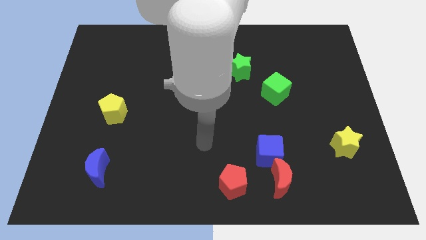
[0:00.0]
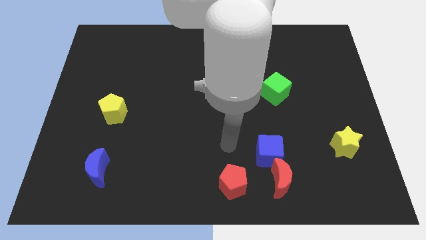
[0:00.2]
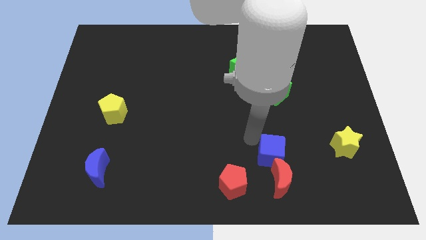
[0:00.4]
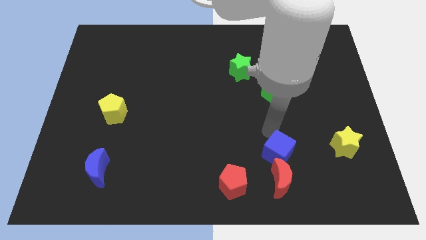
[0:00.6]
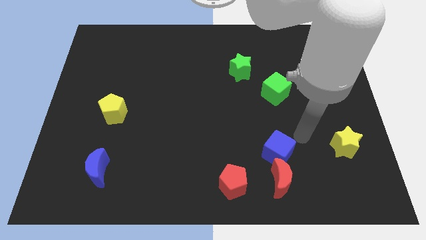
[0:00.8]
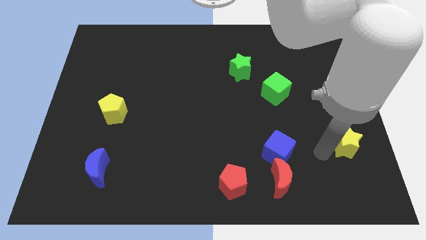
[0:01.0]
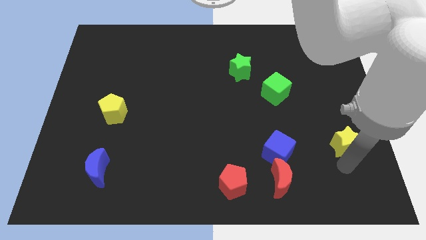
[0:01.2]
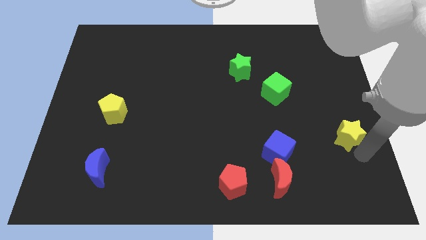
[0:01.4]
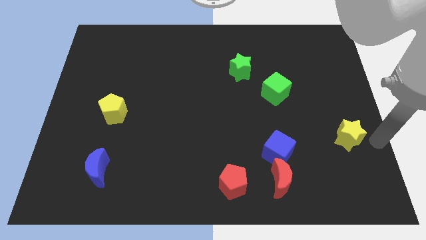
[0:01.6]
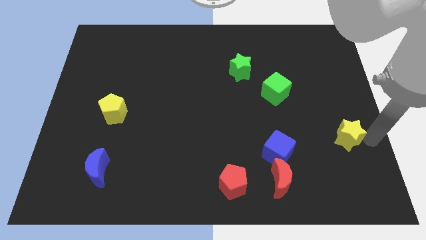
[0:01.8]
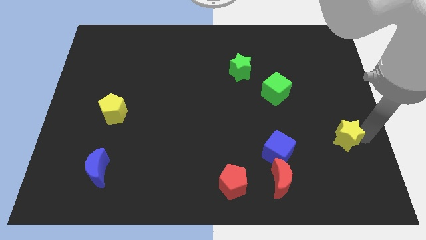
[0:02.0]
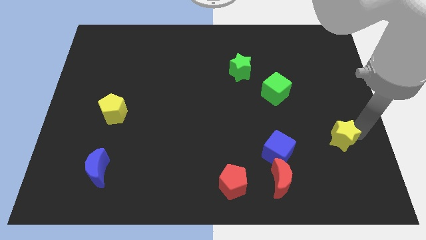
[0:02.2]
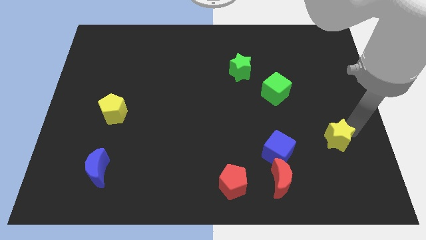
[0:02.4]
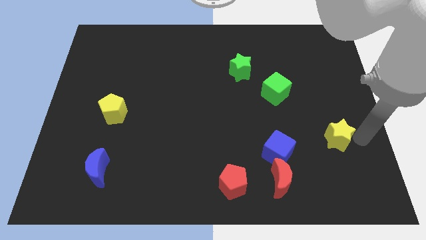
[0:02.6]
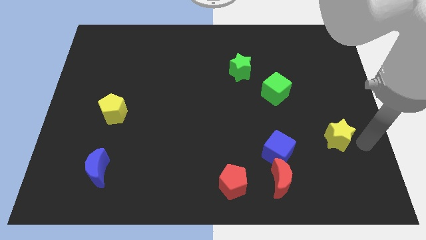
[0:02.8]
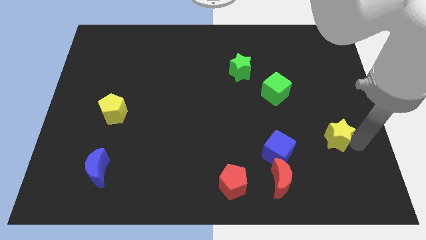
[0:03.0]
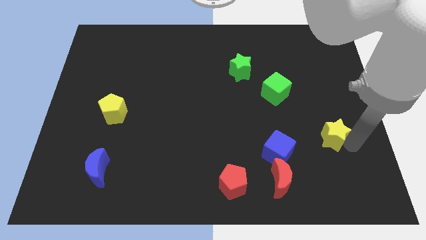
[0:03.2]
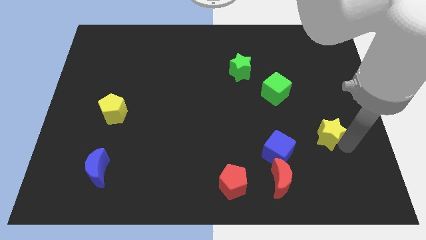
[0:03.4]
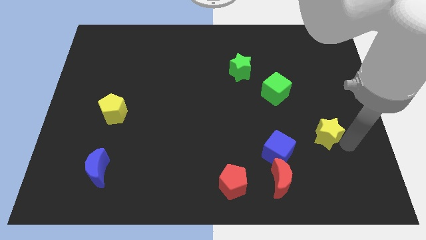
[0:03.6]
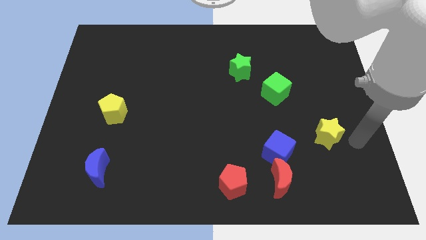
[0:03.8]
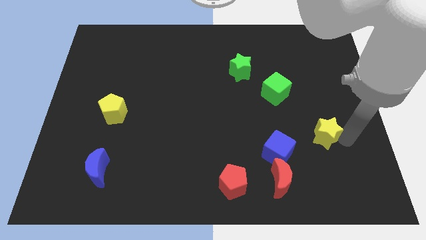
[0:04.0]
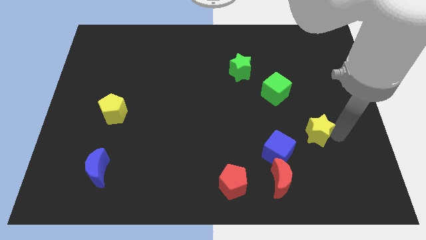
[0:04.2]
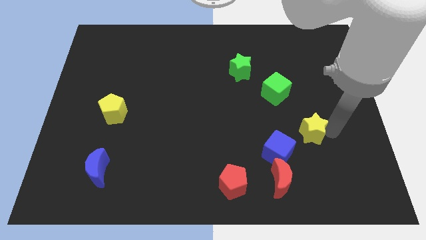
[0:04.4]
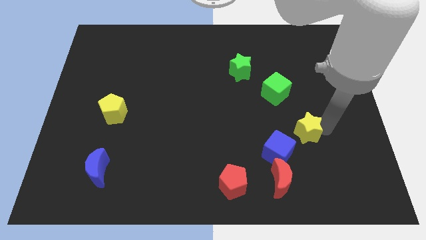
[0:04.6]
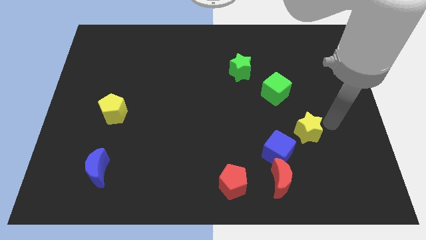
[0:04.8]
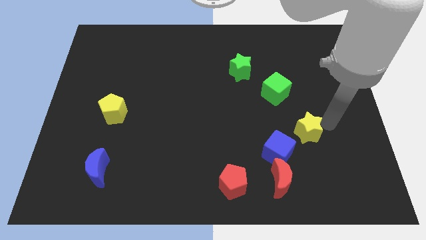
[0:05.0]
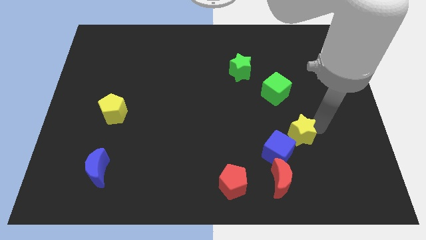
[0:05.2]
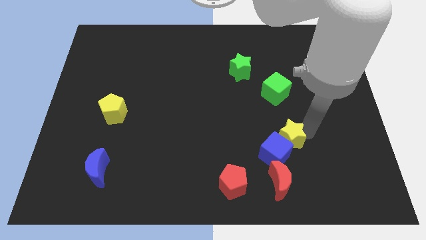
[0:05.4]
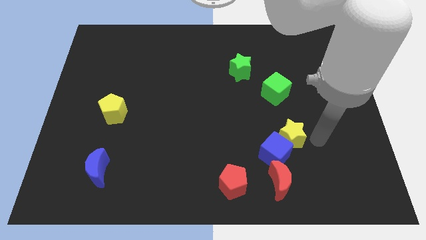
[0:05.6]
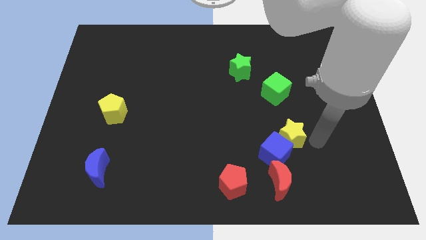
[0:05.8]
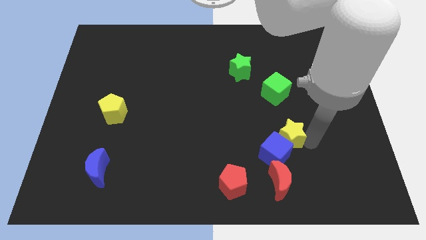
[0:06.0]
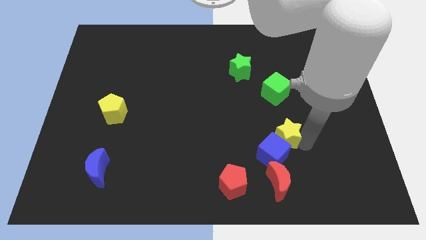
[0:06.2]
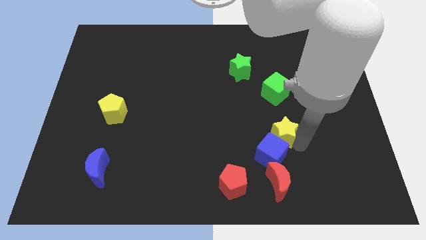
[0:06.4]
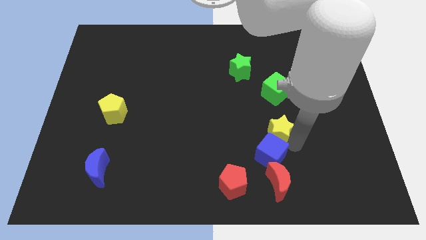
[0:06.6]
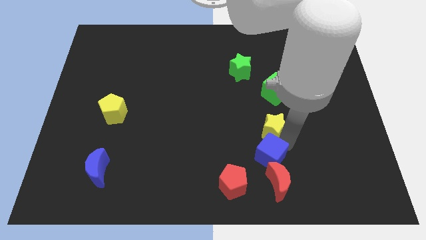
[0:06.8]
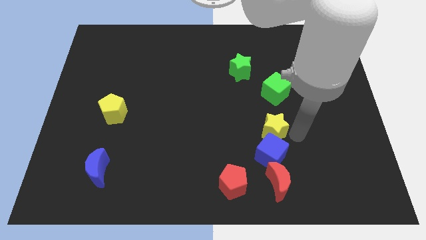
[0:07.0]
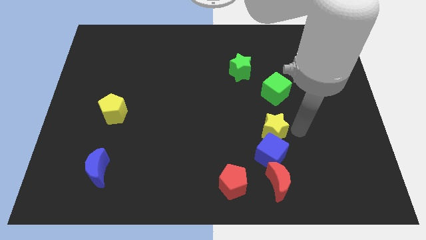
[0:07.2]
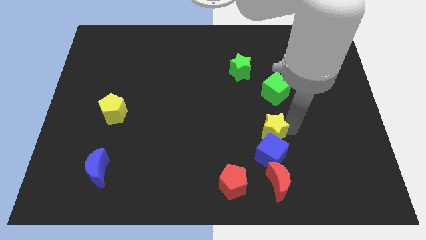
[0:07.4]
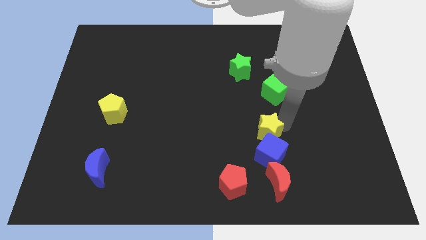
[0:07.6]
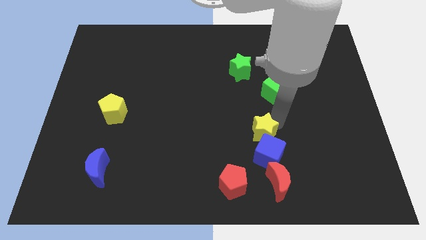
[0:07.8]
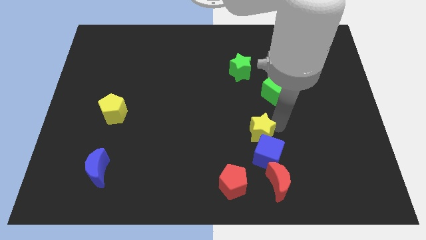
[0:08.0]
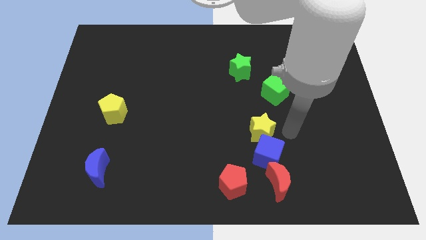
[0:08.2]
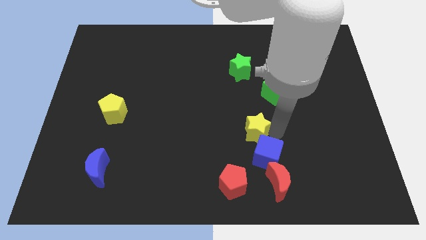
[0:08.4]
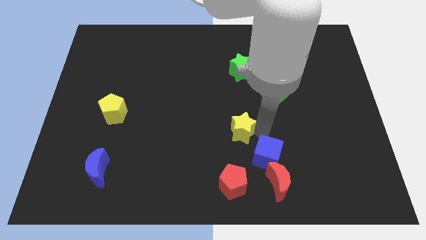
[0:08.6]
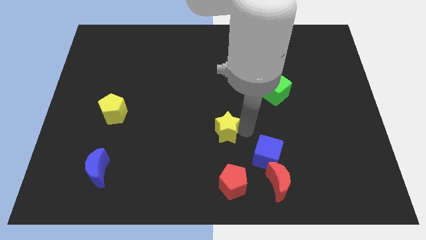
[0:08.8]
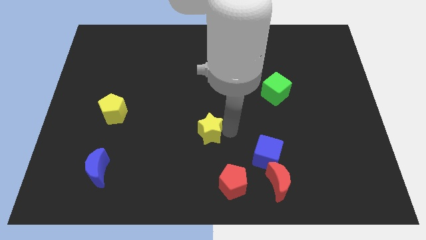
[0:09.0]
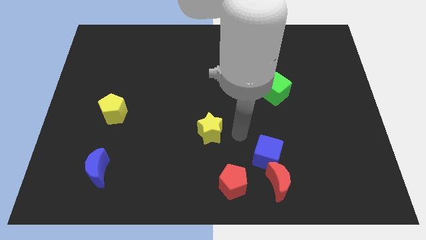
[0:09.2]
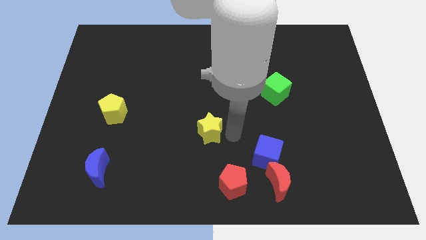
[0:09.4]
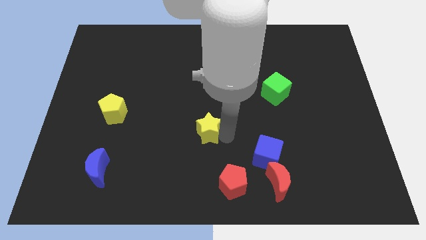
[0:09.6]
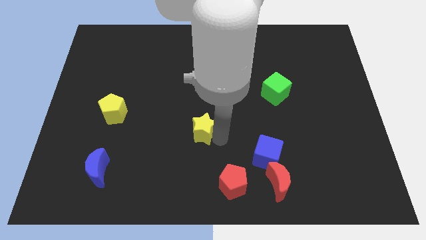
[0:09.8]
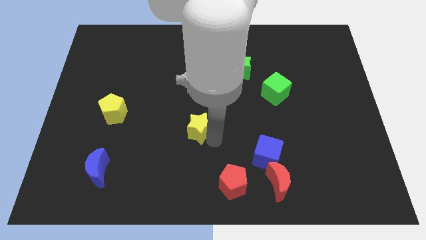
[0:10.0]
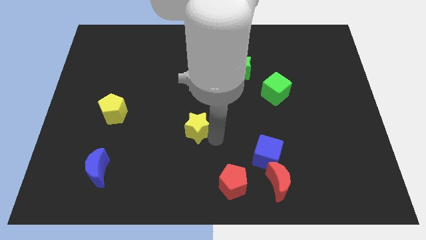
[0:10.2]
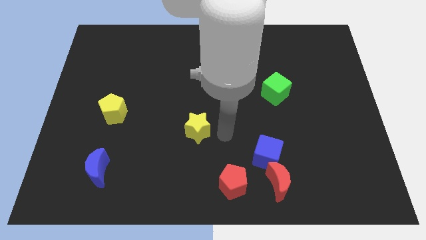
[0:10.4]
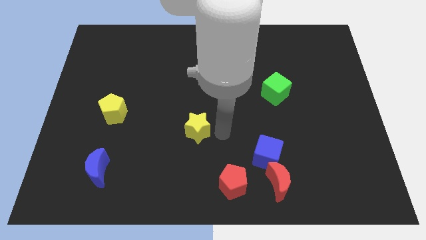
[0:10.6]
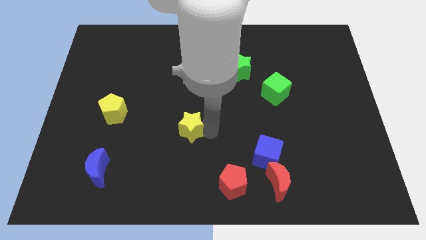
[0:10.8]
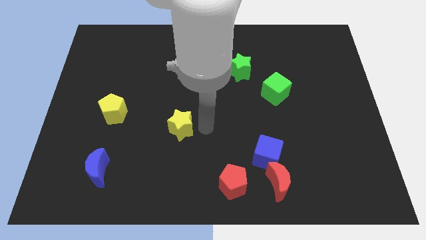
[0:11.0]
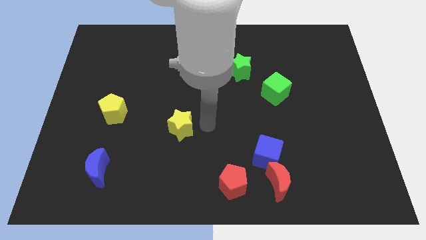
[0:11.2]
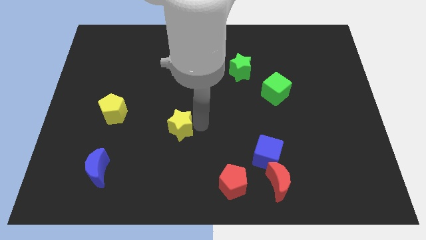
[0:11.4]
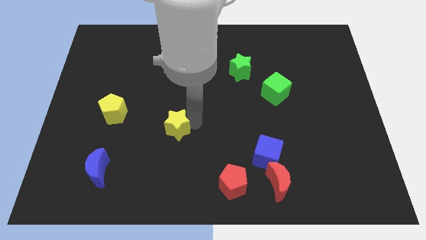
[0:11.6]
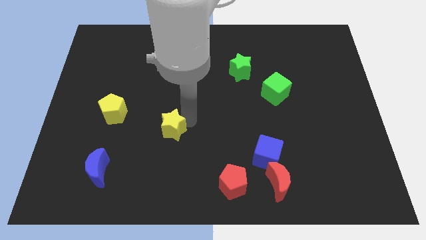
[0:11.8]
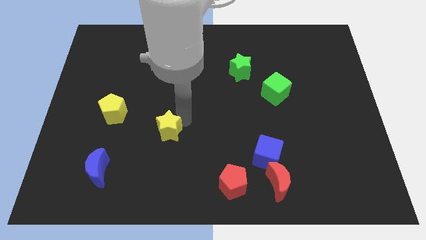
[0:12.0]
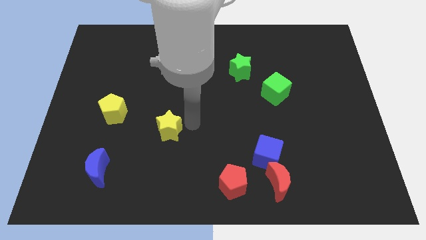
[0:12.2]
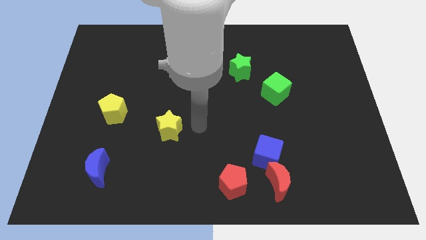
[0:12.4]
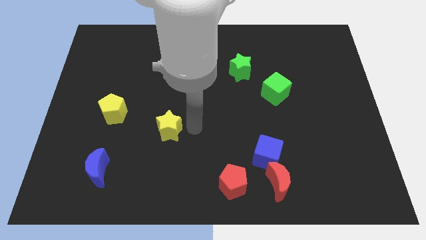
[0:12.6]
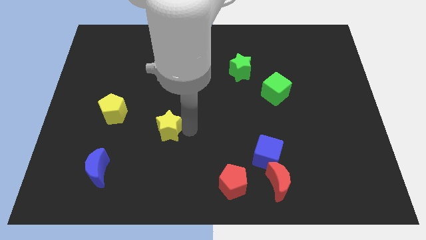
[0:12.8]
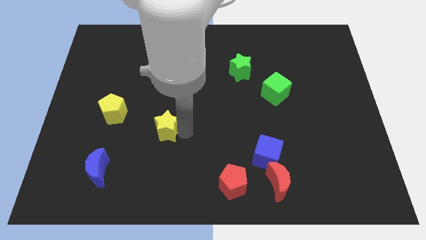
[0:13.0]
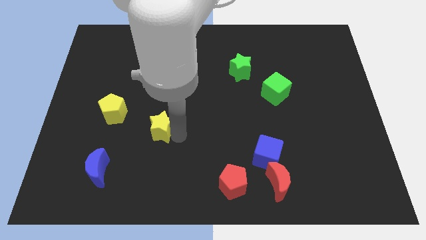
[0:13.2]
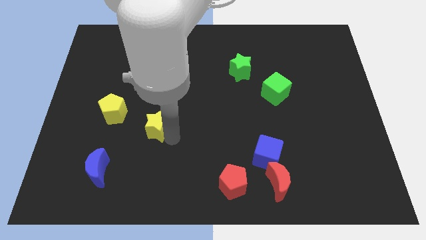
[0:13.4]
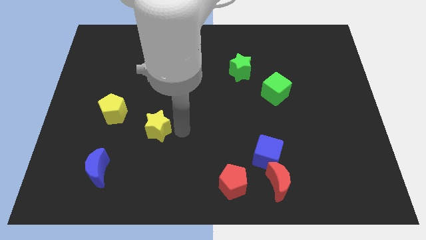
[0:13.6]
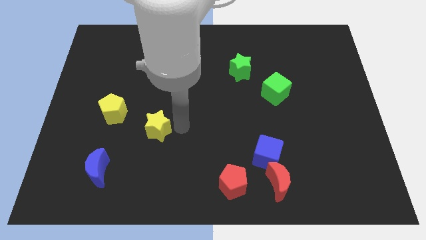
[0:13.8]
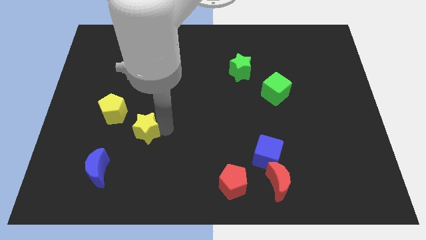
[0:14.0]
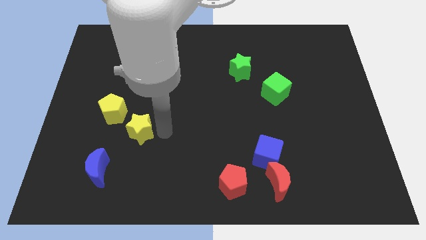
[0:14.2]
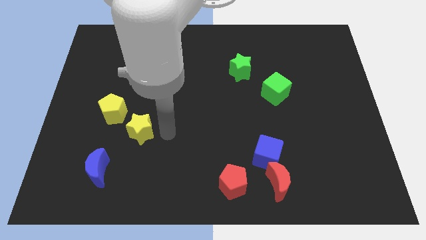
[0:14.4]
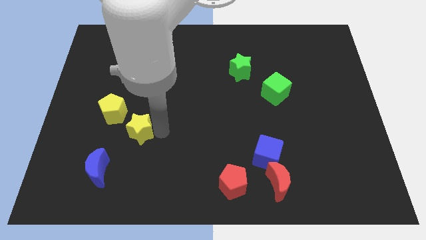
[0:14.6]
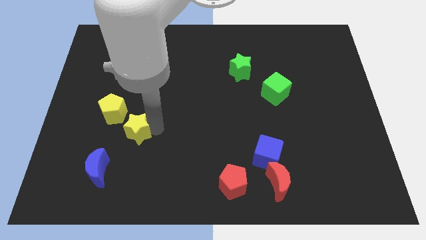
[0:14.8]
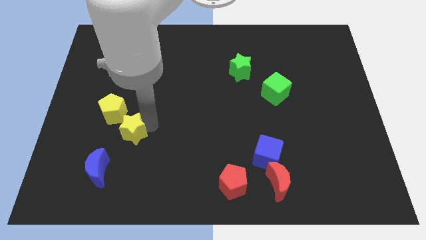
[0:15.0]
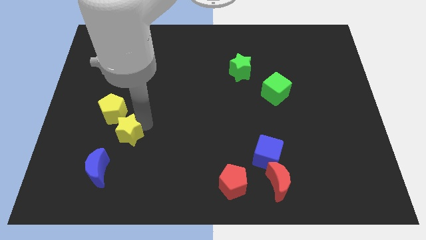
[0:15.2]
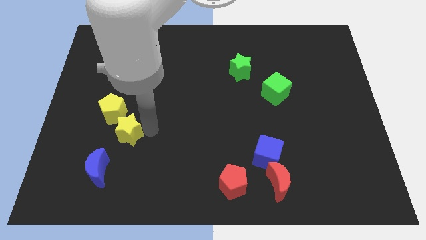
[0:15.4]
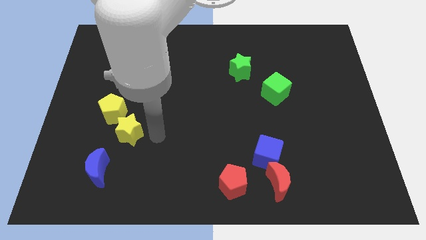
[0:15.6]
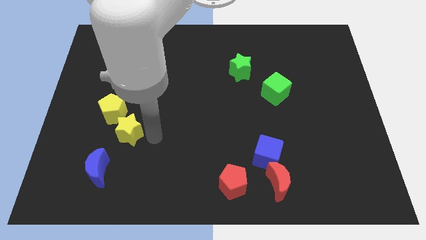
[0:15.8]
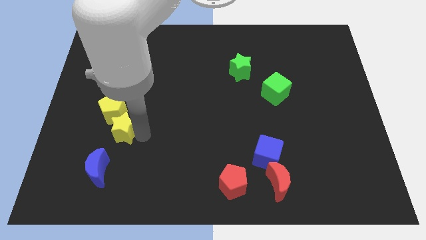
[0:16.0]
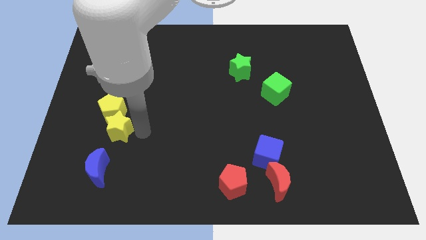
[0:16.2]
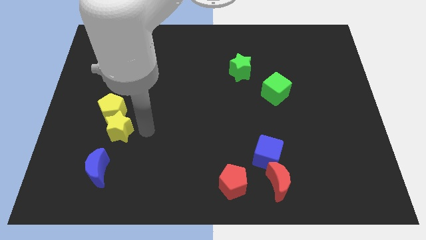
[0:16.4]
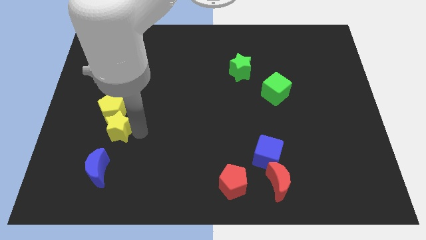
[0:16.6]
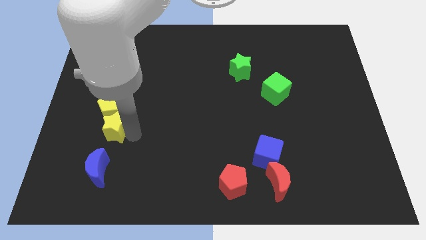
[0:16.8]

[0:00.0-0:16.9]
push the yellow star diagonally down and to the left of the yellow pentagon

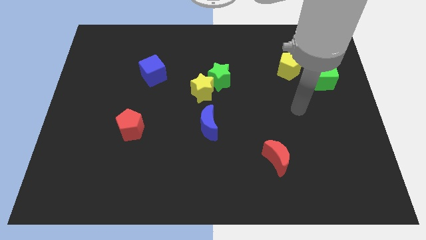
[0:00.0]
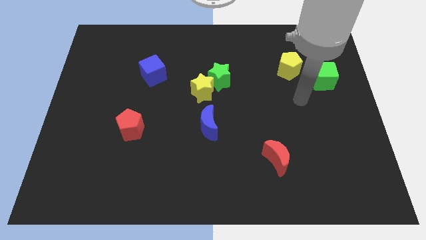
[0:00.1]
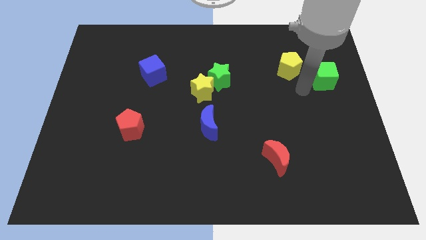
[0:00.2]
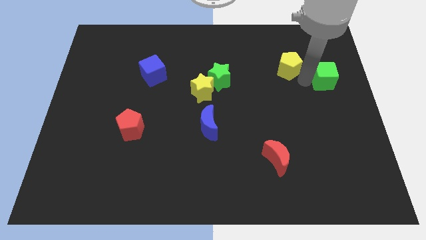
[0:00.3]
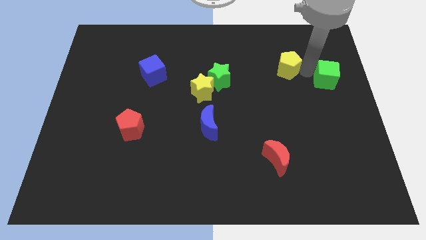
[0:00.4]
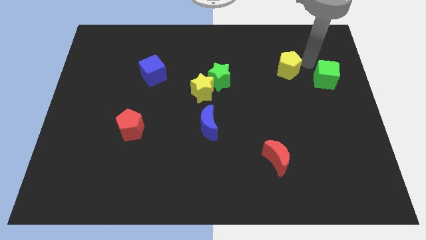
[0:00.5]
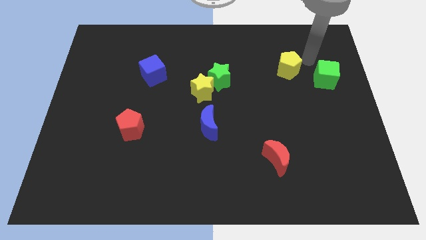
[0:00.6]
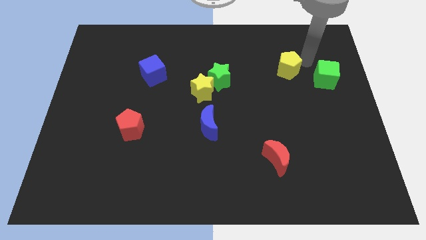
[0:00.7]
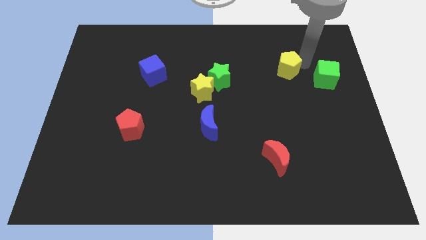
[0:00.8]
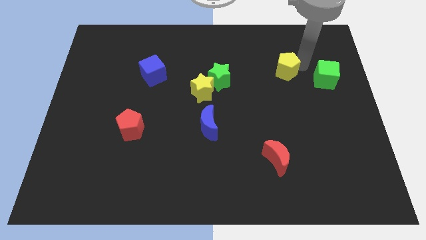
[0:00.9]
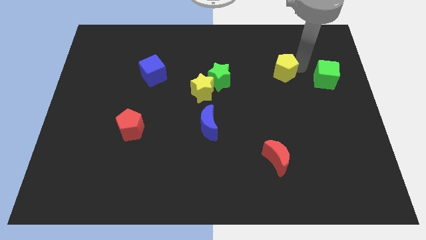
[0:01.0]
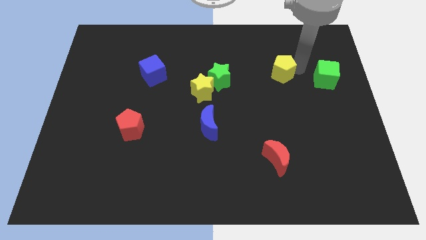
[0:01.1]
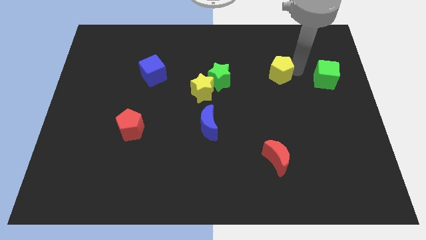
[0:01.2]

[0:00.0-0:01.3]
move the yellow pentagon right of the green star
